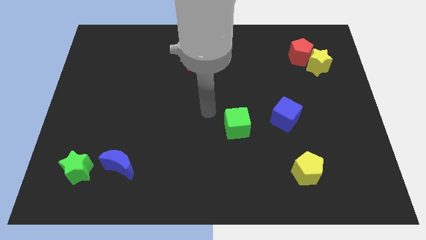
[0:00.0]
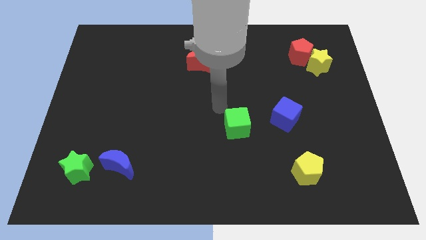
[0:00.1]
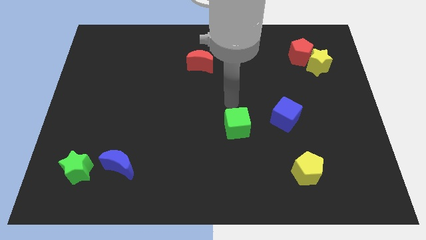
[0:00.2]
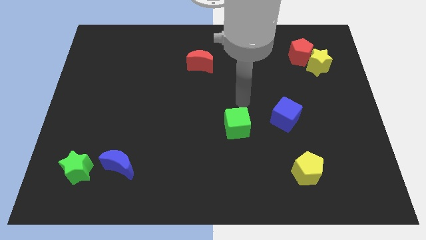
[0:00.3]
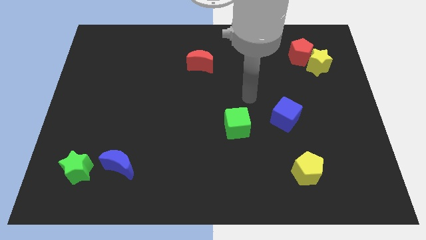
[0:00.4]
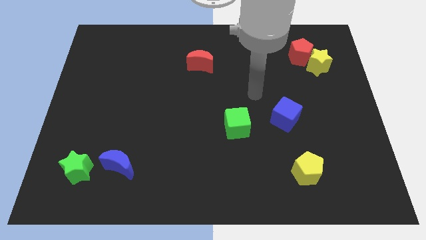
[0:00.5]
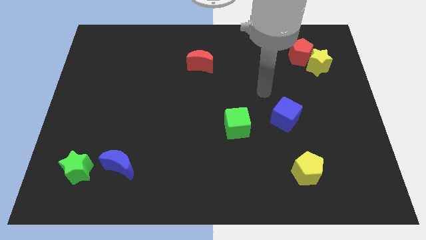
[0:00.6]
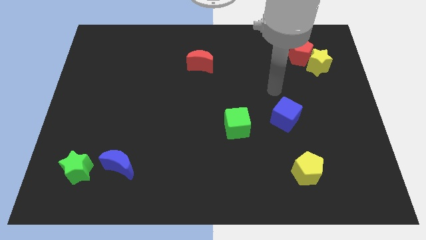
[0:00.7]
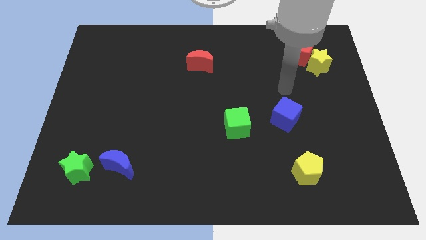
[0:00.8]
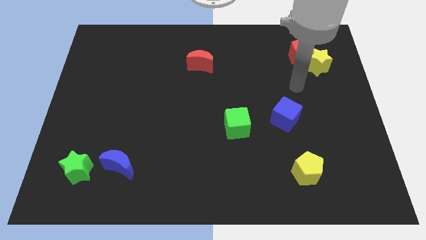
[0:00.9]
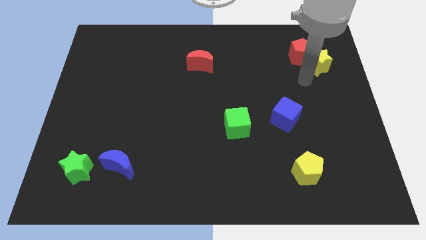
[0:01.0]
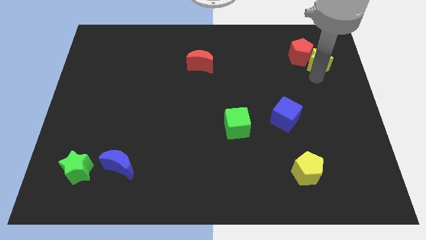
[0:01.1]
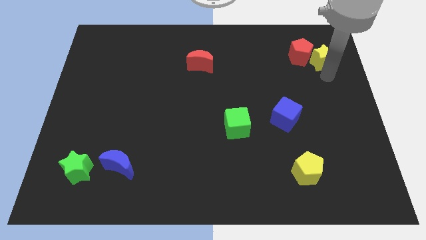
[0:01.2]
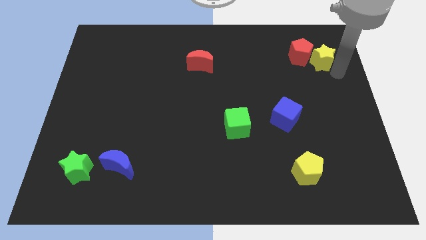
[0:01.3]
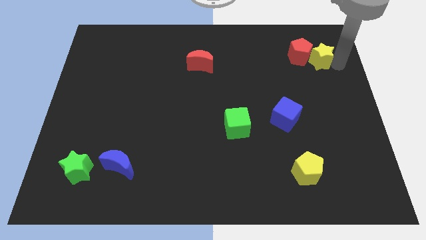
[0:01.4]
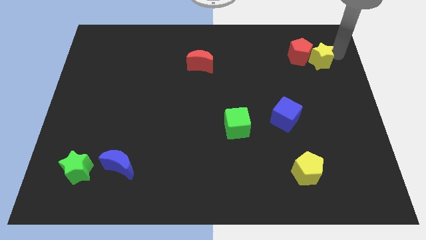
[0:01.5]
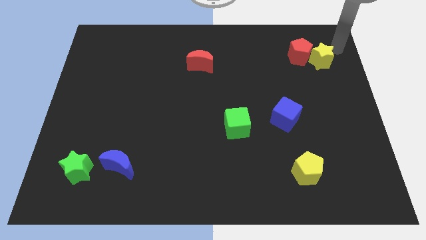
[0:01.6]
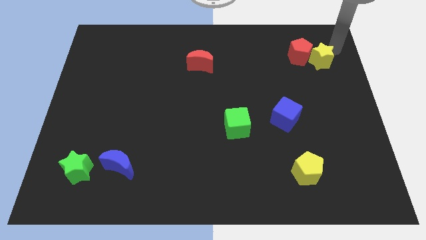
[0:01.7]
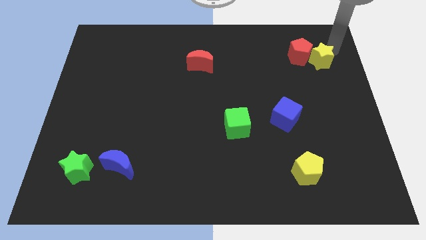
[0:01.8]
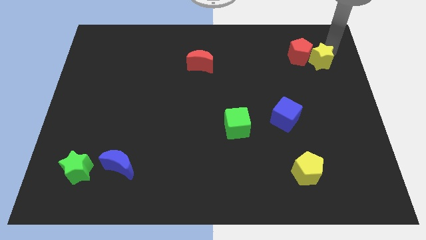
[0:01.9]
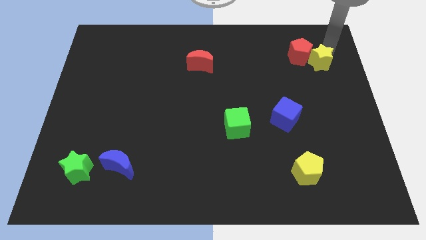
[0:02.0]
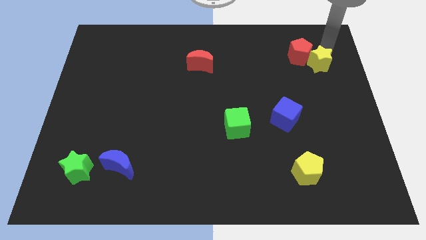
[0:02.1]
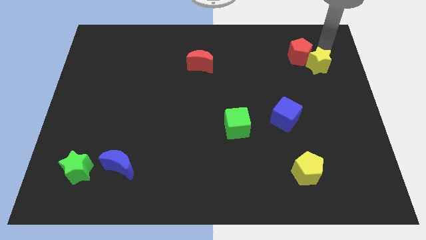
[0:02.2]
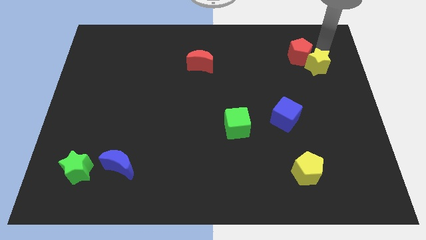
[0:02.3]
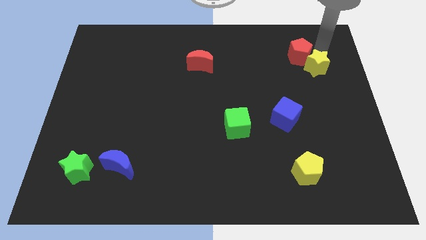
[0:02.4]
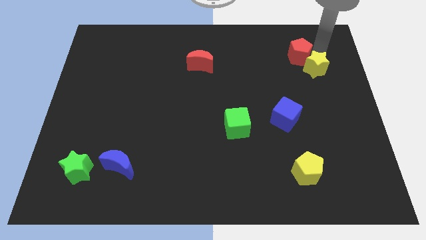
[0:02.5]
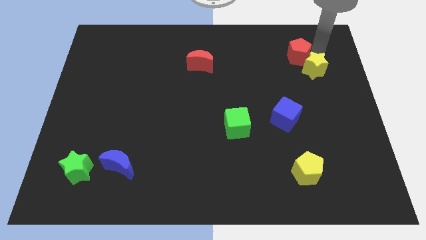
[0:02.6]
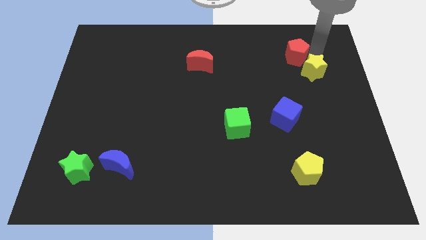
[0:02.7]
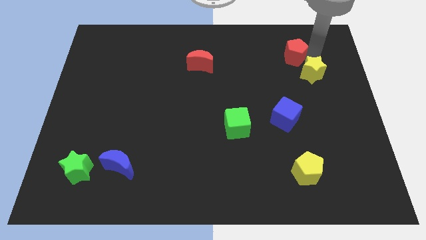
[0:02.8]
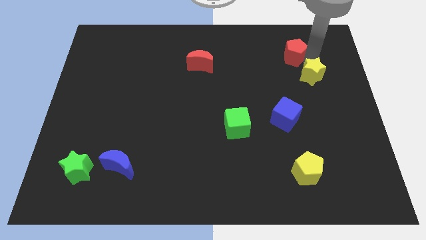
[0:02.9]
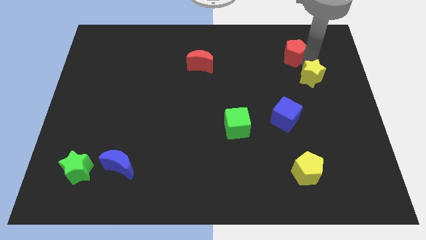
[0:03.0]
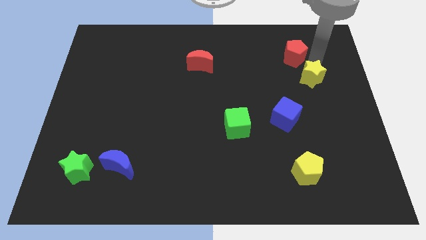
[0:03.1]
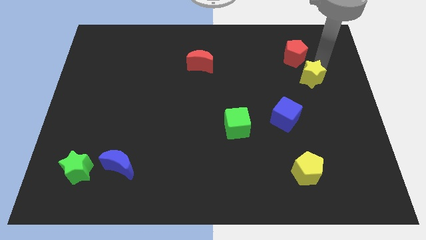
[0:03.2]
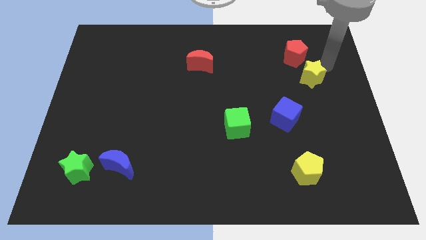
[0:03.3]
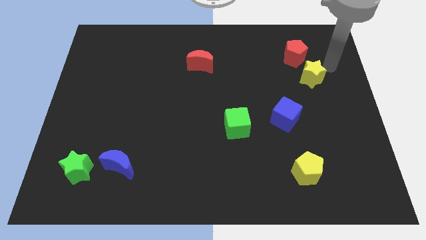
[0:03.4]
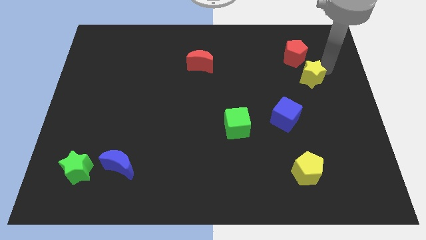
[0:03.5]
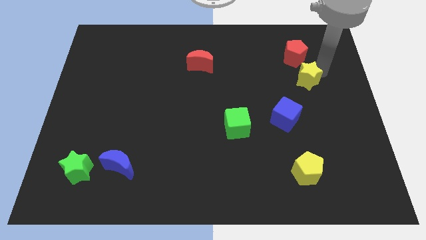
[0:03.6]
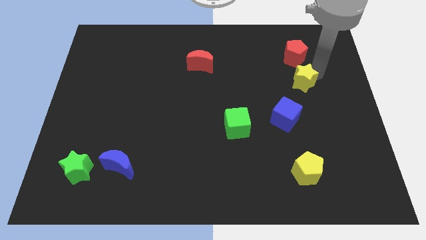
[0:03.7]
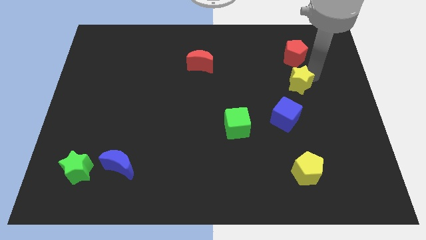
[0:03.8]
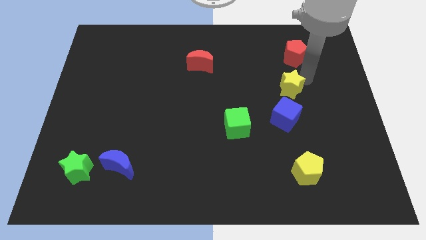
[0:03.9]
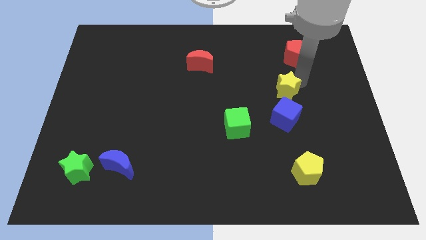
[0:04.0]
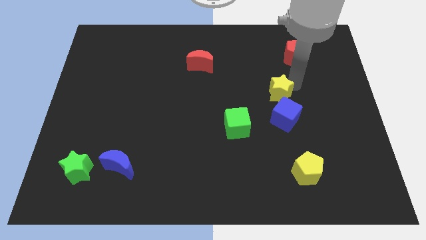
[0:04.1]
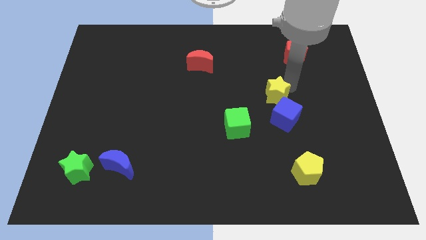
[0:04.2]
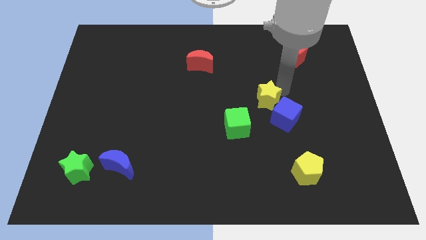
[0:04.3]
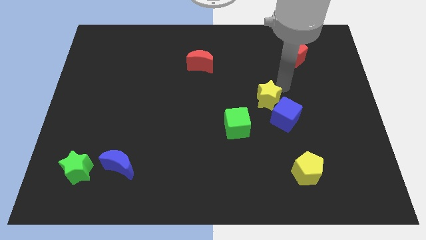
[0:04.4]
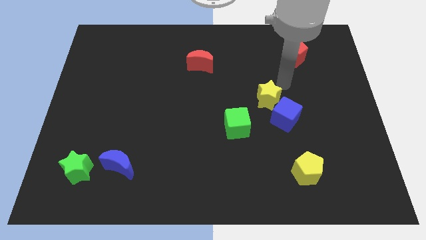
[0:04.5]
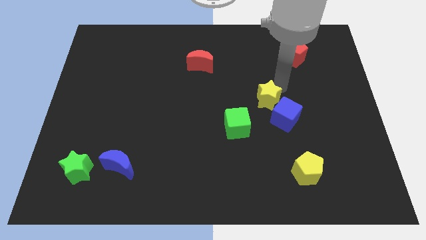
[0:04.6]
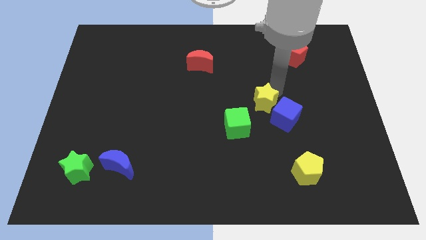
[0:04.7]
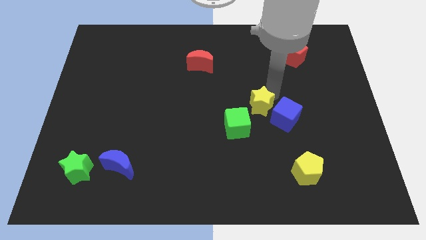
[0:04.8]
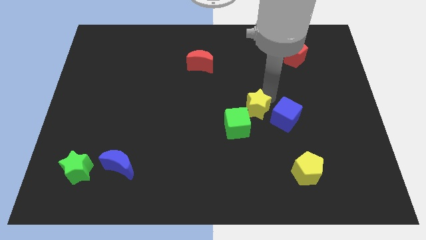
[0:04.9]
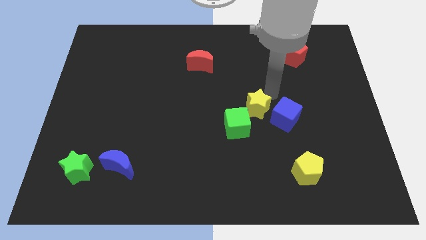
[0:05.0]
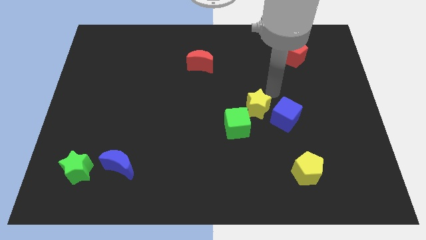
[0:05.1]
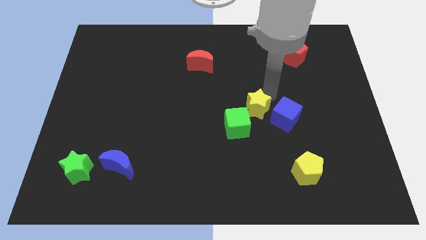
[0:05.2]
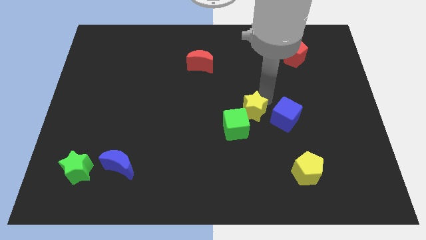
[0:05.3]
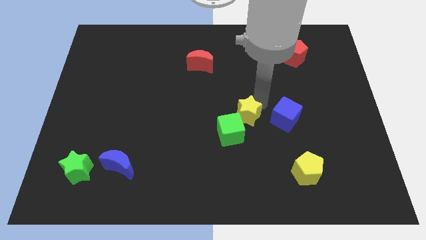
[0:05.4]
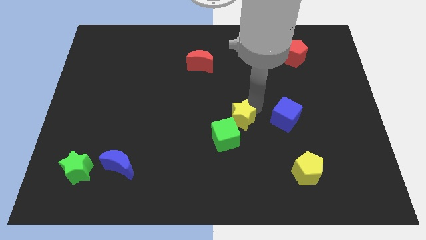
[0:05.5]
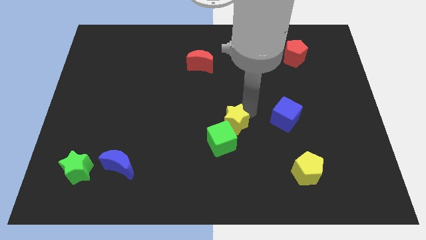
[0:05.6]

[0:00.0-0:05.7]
put the yellow star next to the green cube

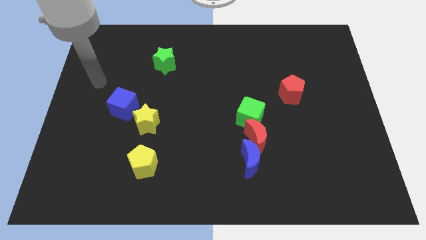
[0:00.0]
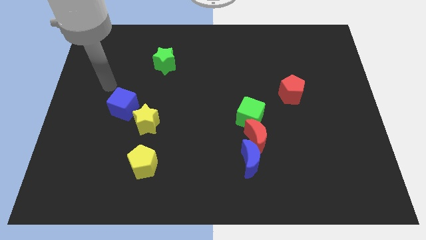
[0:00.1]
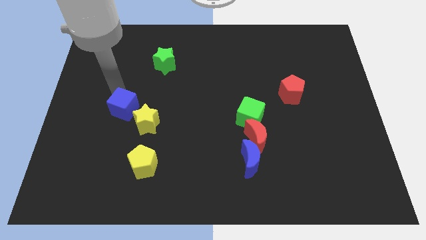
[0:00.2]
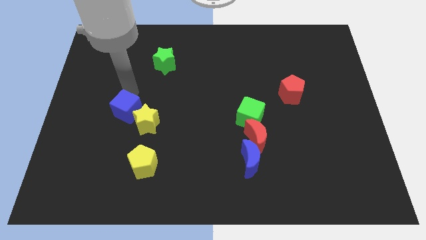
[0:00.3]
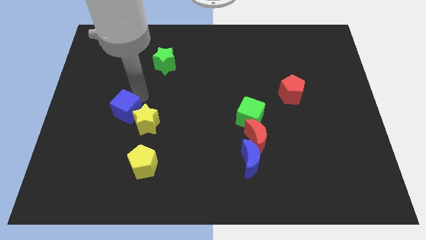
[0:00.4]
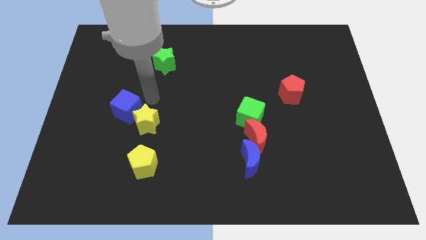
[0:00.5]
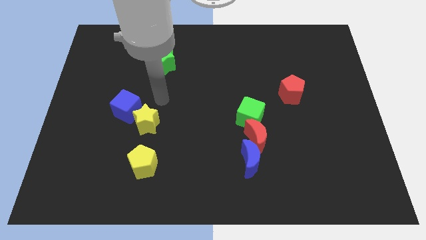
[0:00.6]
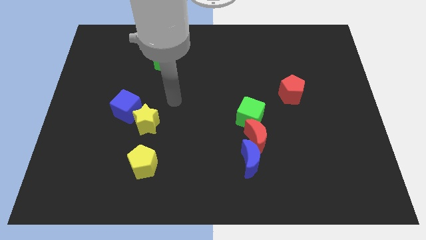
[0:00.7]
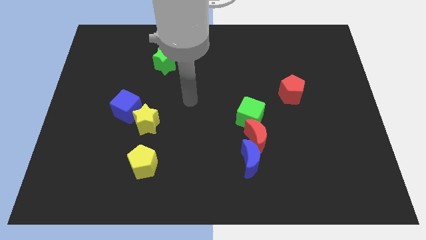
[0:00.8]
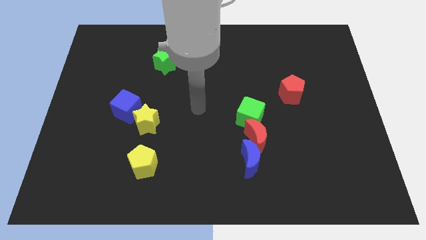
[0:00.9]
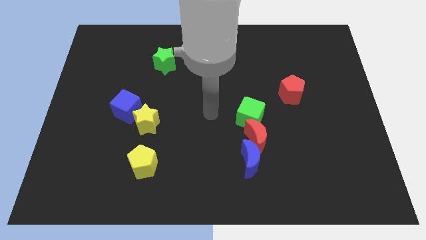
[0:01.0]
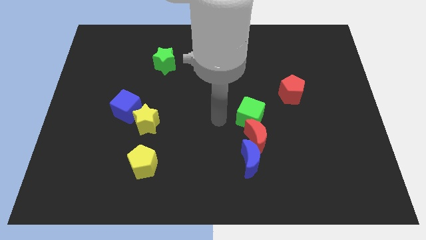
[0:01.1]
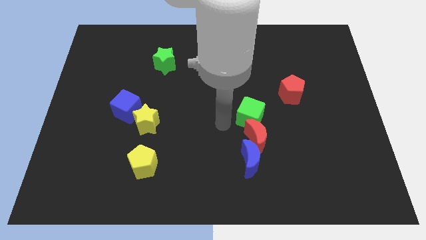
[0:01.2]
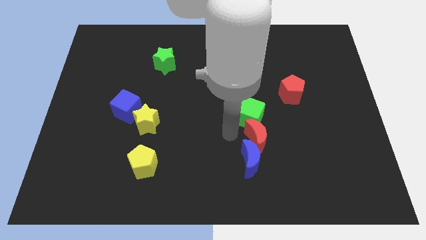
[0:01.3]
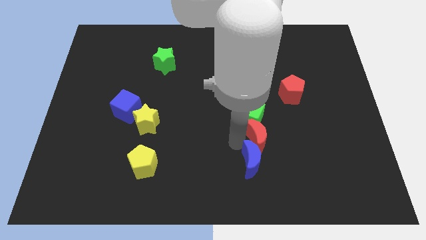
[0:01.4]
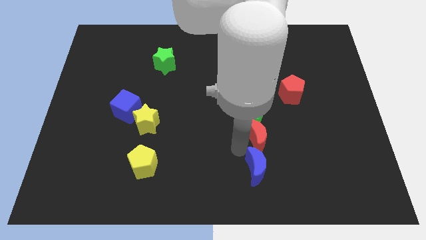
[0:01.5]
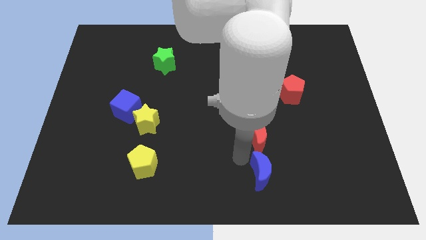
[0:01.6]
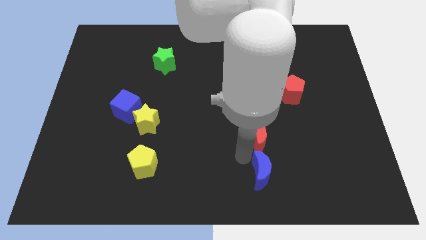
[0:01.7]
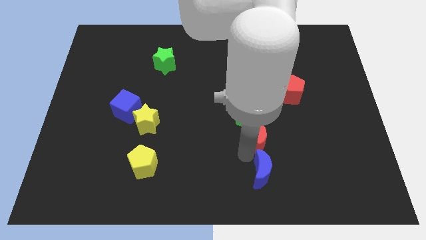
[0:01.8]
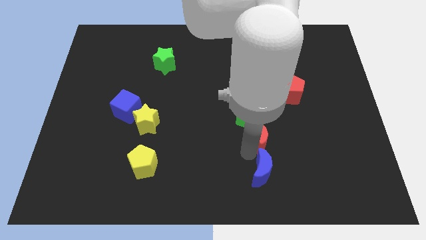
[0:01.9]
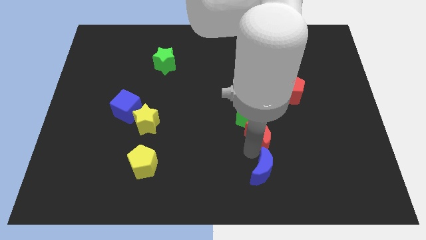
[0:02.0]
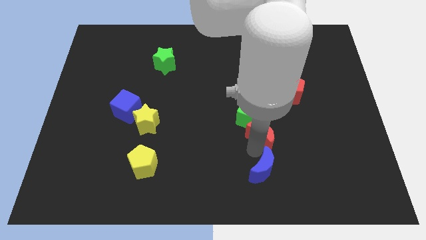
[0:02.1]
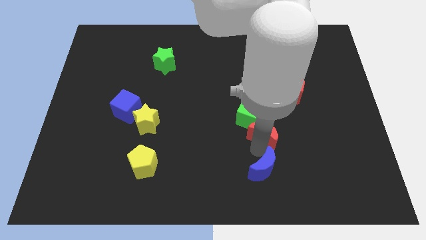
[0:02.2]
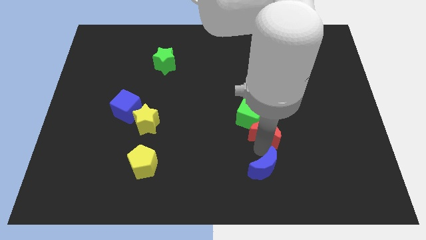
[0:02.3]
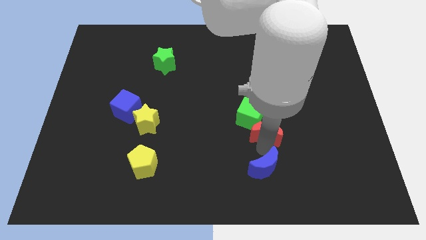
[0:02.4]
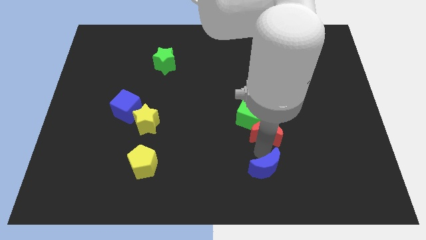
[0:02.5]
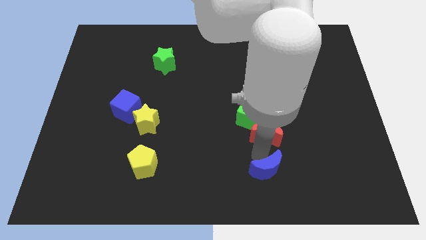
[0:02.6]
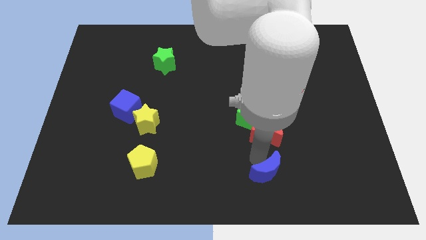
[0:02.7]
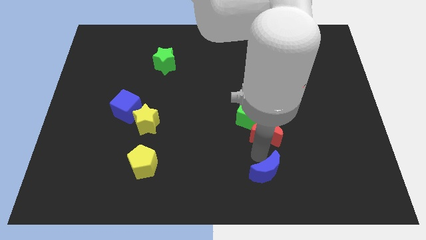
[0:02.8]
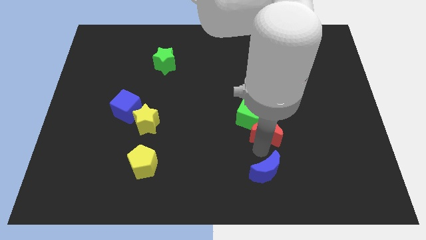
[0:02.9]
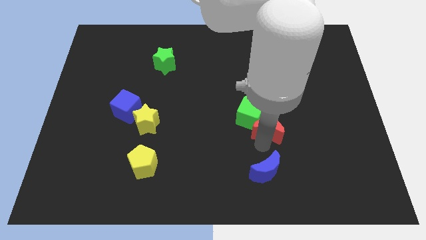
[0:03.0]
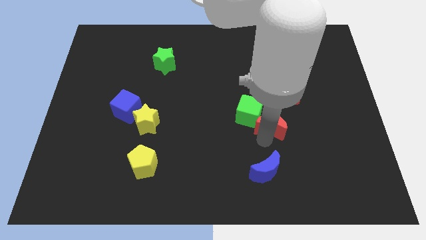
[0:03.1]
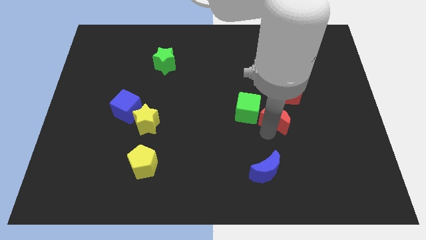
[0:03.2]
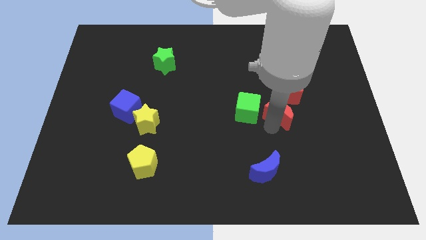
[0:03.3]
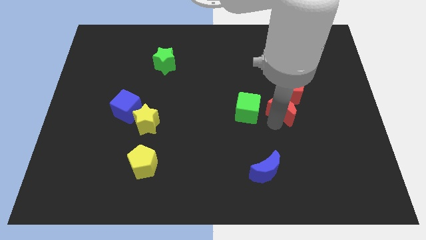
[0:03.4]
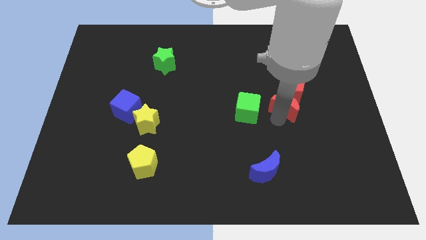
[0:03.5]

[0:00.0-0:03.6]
move the red moon close to the red pentagon
